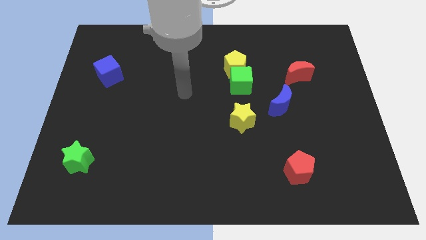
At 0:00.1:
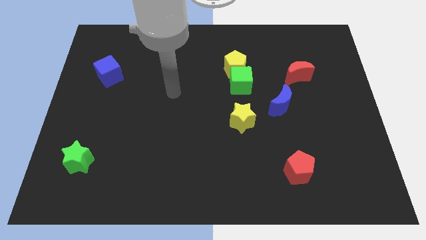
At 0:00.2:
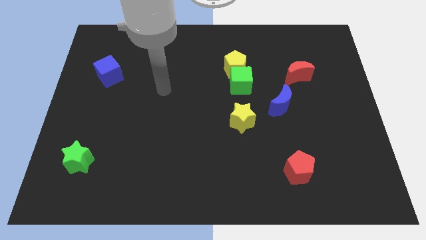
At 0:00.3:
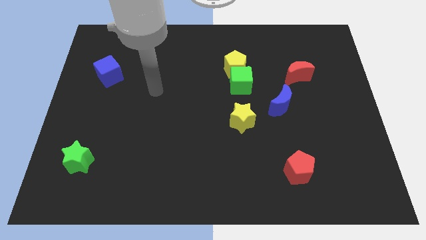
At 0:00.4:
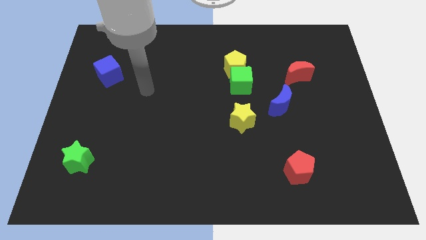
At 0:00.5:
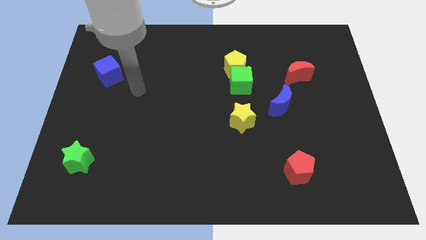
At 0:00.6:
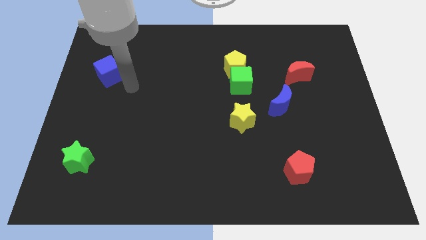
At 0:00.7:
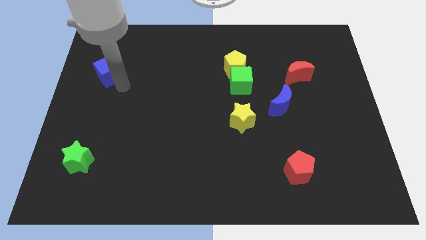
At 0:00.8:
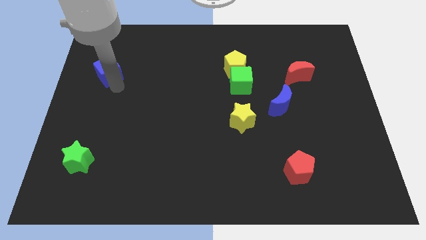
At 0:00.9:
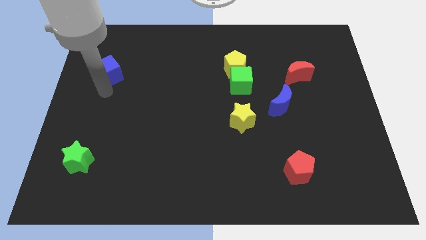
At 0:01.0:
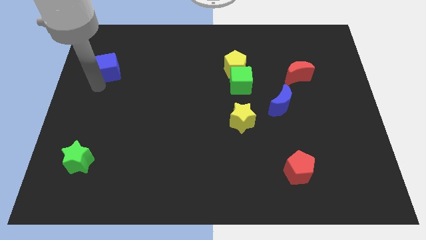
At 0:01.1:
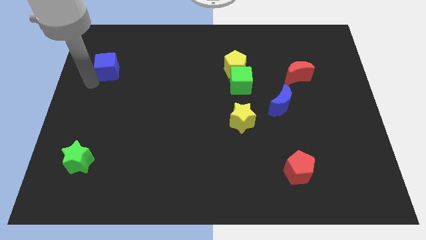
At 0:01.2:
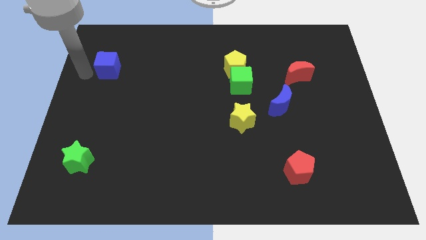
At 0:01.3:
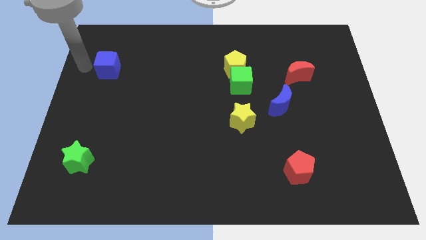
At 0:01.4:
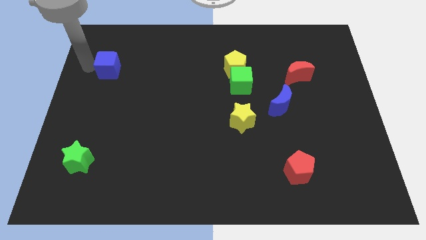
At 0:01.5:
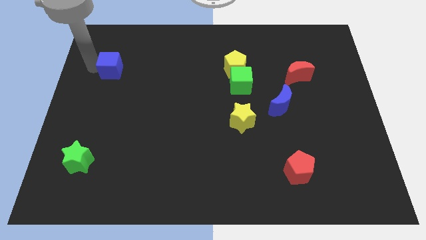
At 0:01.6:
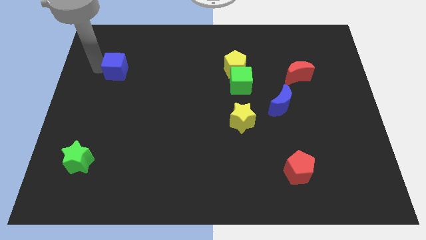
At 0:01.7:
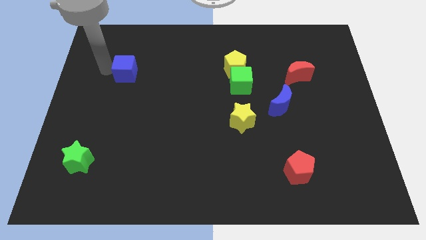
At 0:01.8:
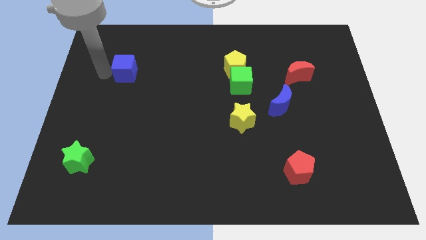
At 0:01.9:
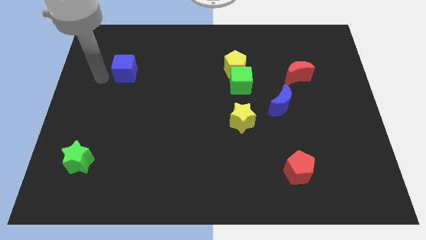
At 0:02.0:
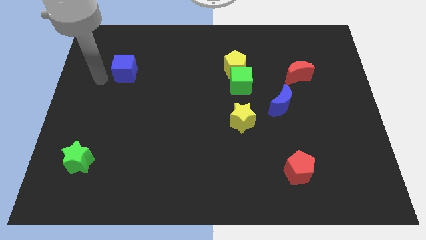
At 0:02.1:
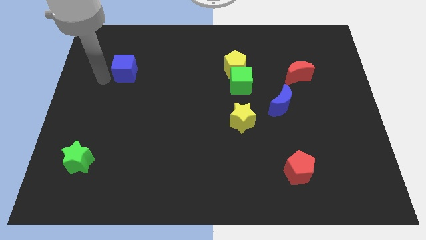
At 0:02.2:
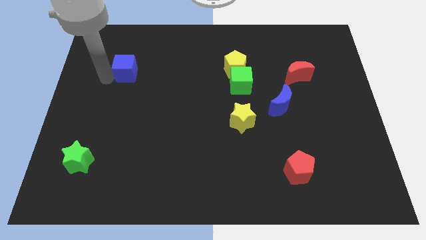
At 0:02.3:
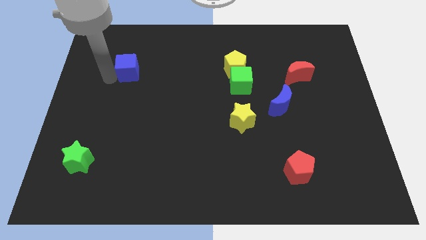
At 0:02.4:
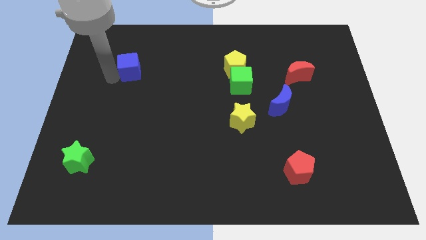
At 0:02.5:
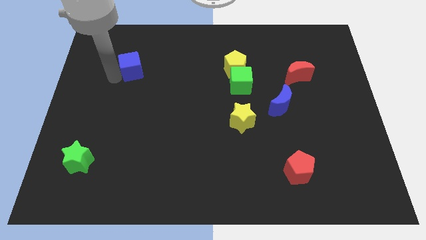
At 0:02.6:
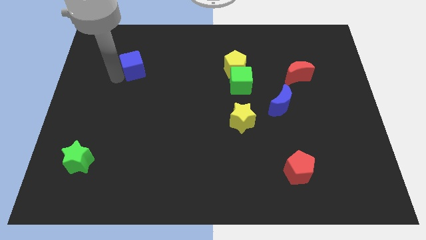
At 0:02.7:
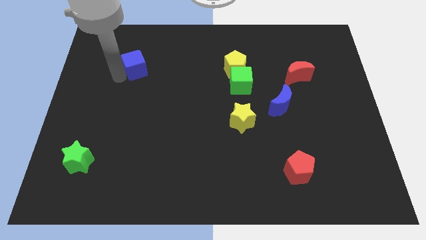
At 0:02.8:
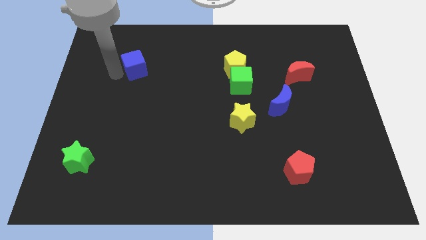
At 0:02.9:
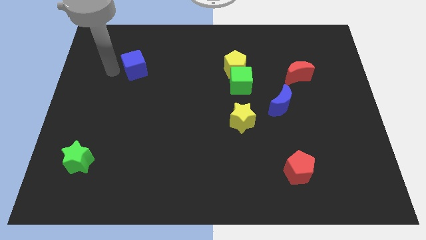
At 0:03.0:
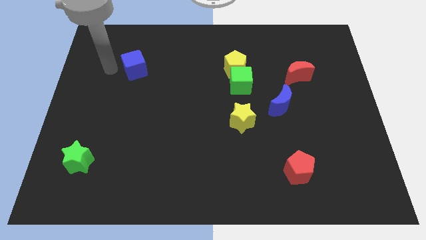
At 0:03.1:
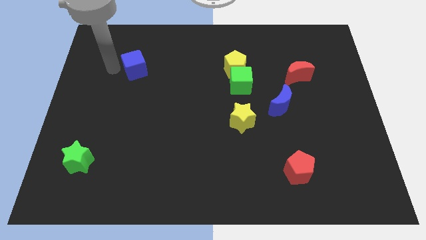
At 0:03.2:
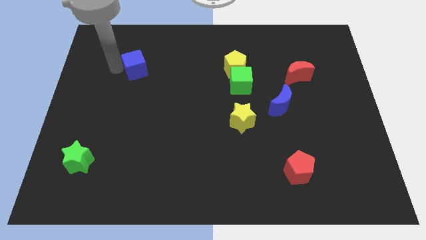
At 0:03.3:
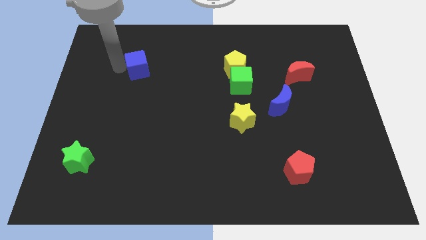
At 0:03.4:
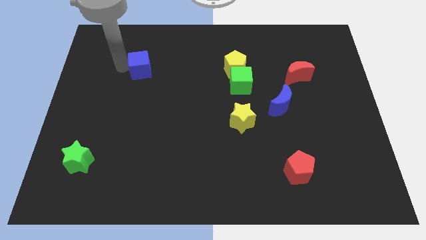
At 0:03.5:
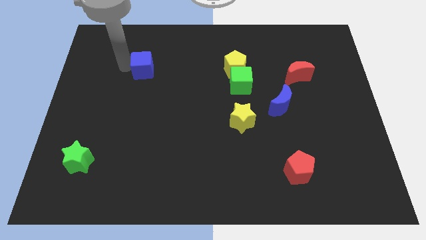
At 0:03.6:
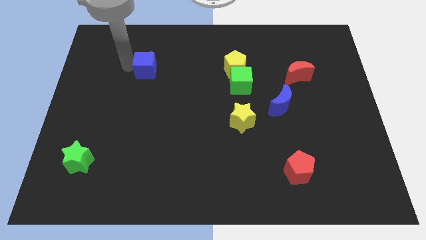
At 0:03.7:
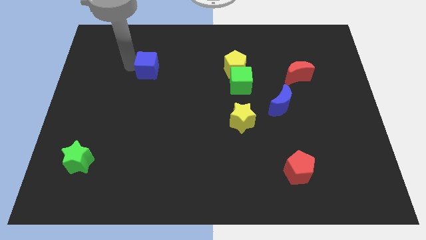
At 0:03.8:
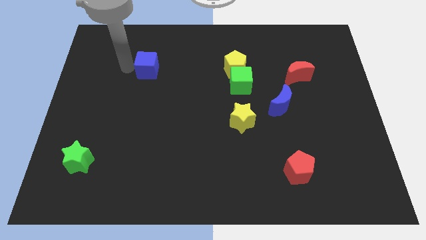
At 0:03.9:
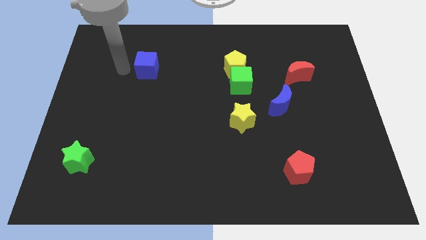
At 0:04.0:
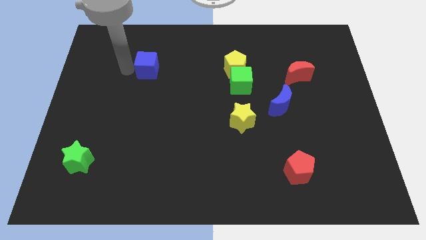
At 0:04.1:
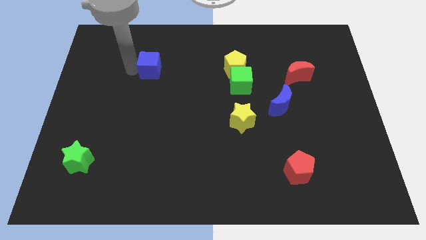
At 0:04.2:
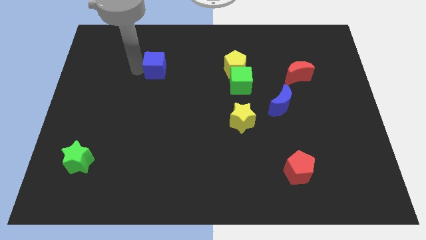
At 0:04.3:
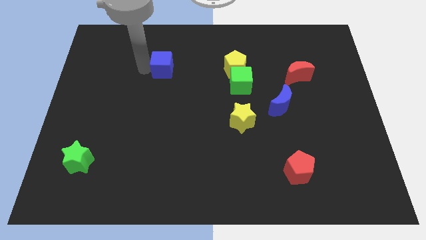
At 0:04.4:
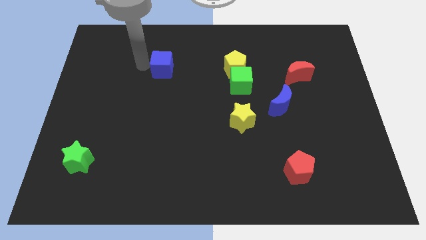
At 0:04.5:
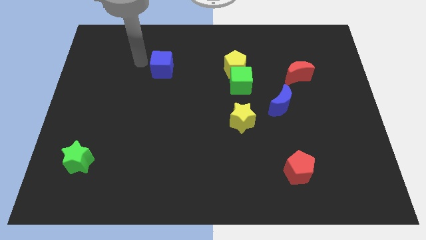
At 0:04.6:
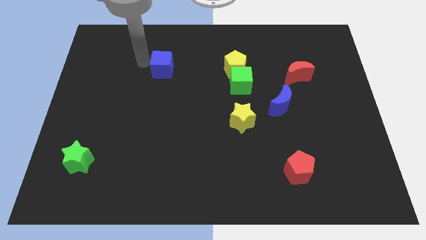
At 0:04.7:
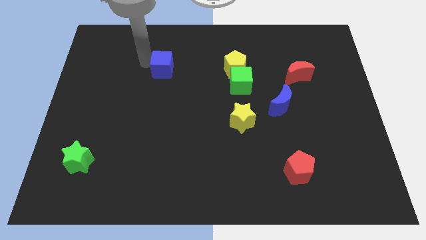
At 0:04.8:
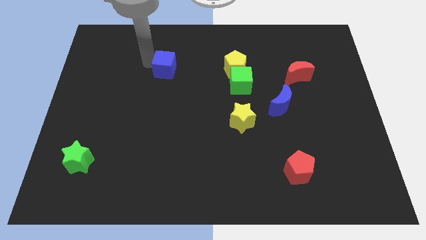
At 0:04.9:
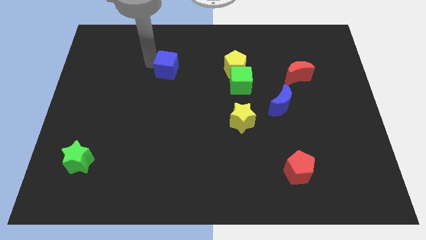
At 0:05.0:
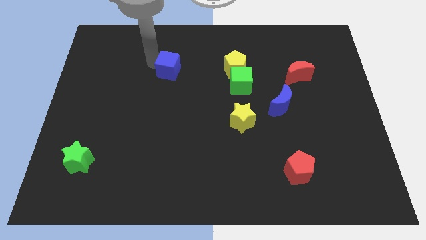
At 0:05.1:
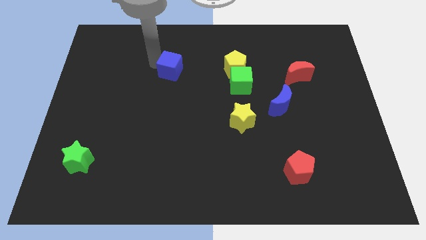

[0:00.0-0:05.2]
put the blue cube just left of the yellow pentagon
